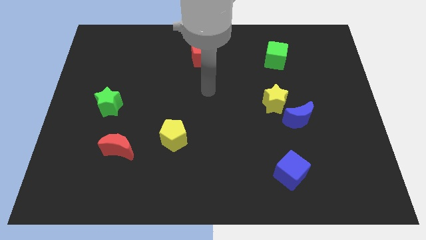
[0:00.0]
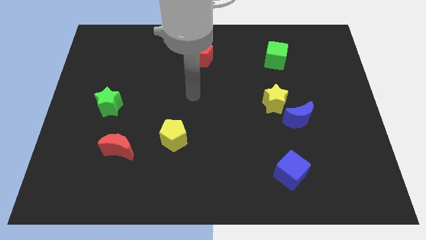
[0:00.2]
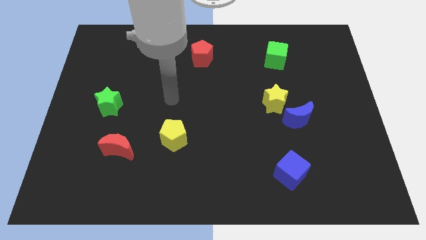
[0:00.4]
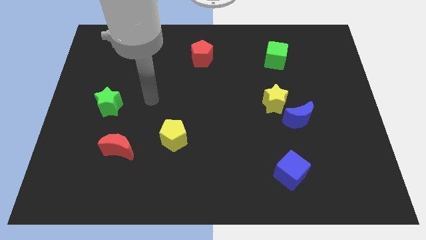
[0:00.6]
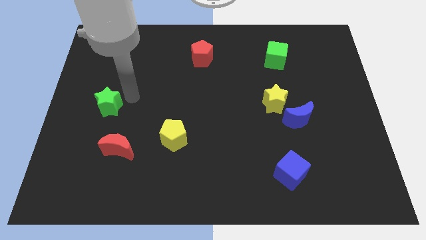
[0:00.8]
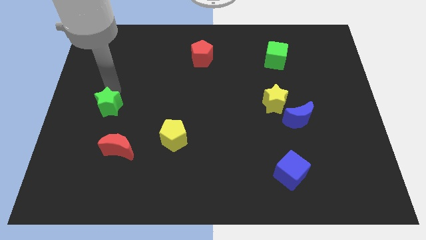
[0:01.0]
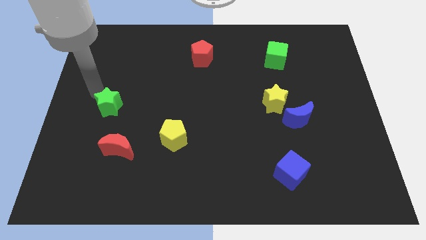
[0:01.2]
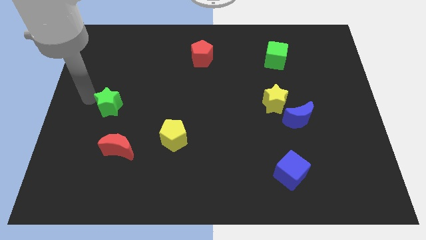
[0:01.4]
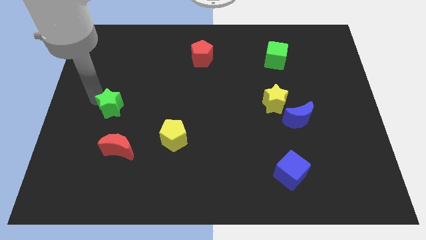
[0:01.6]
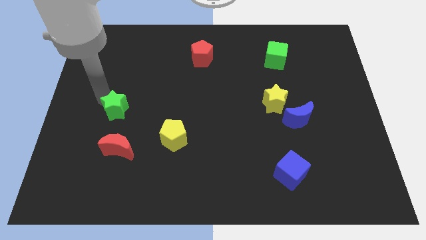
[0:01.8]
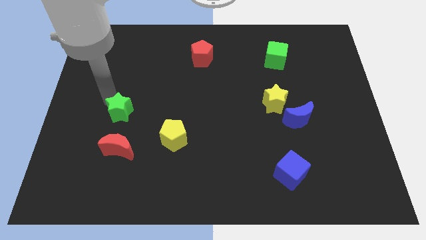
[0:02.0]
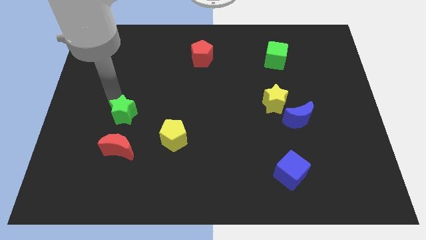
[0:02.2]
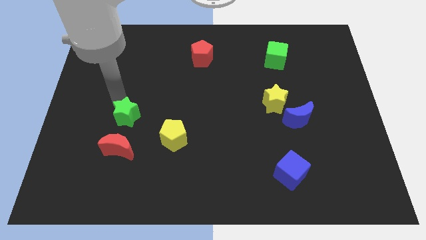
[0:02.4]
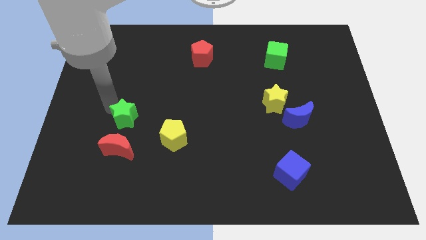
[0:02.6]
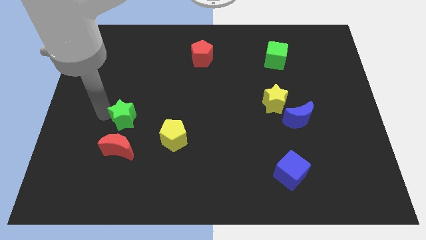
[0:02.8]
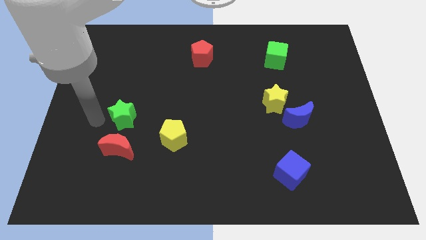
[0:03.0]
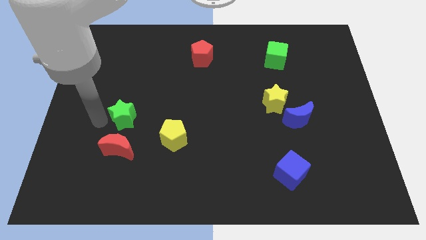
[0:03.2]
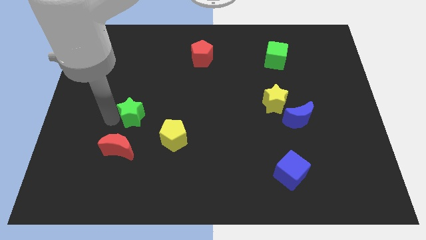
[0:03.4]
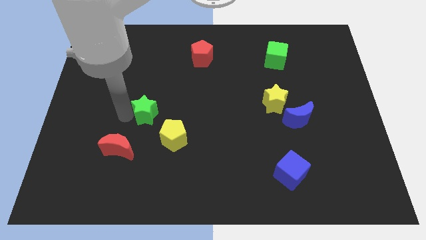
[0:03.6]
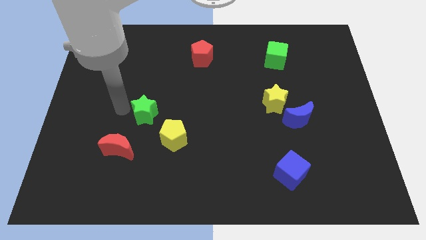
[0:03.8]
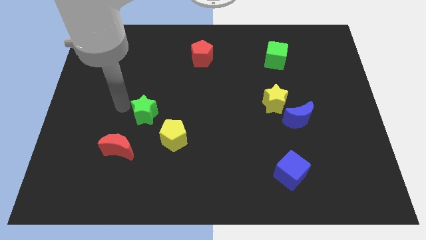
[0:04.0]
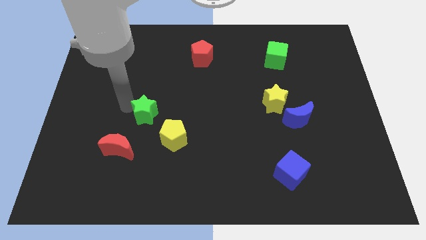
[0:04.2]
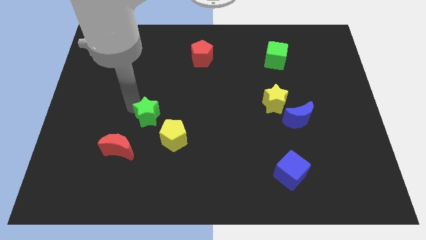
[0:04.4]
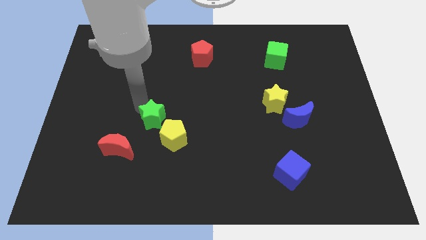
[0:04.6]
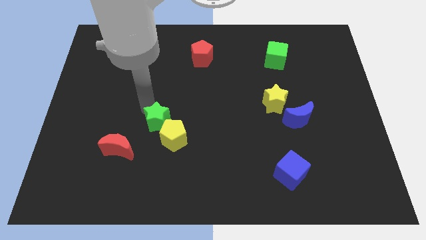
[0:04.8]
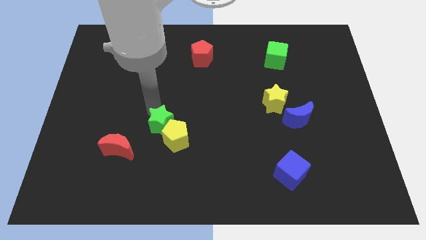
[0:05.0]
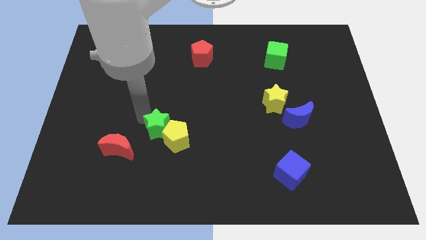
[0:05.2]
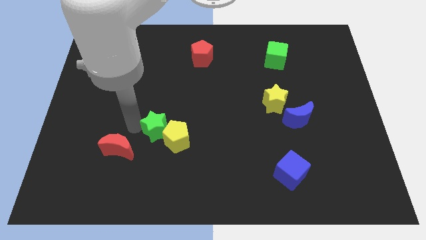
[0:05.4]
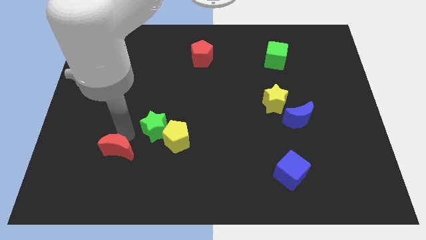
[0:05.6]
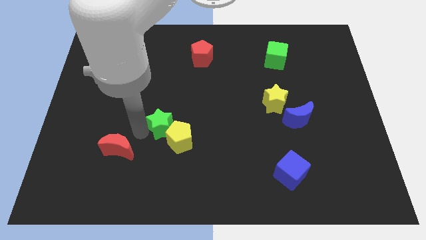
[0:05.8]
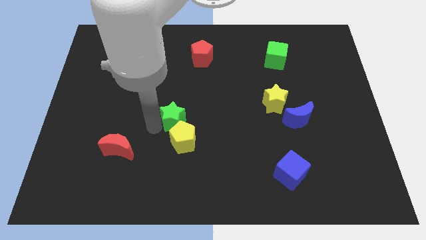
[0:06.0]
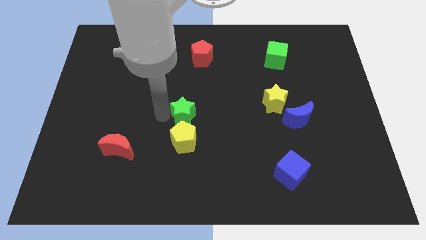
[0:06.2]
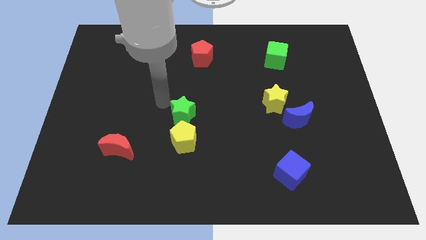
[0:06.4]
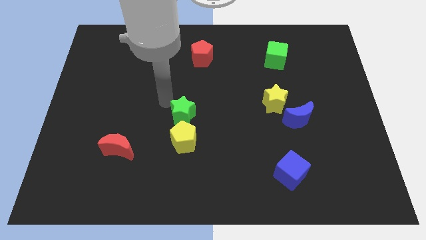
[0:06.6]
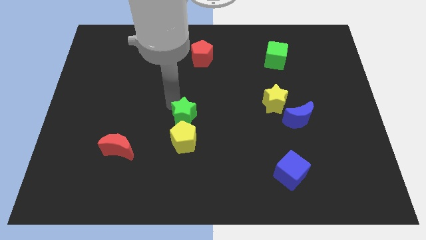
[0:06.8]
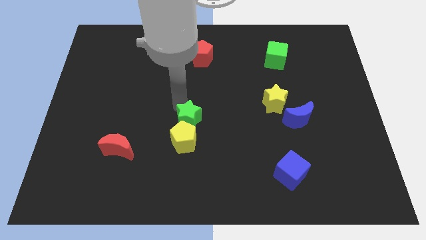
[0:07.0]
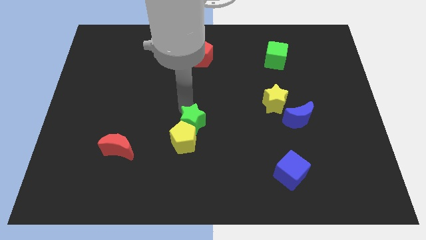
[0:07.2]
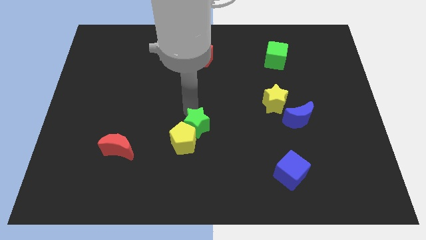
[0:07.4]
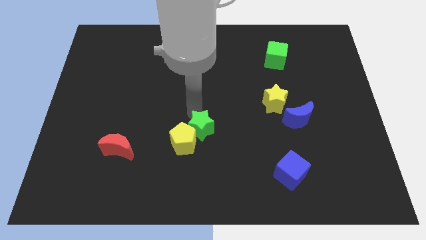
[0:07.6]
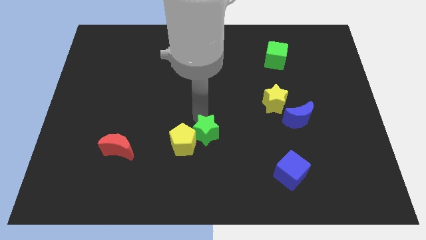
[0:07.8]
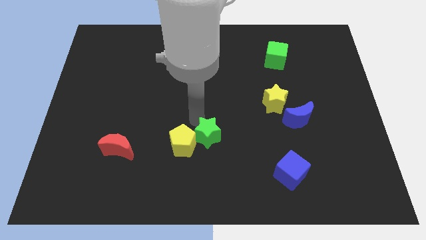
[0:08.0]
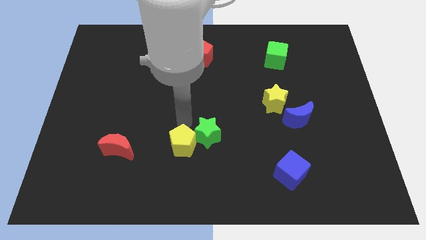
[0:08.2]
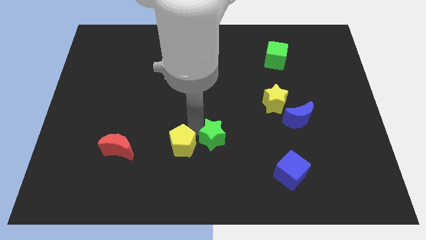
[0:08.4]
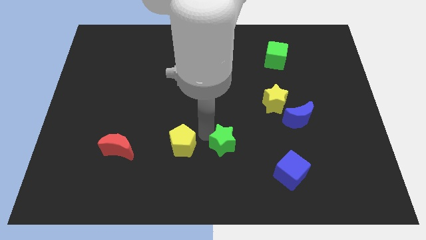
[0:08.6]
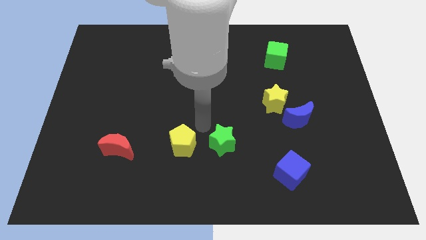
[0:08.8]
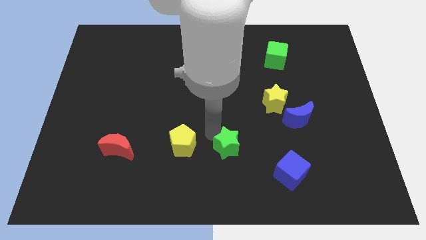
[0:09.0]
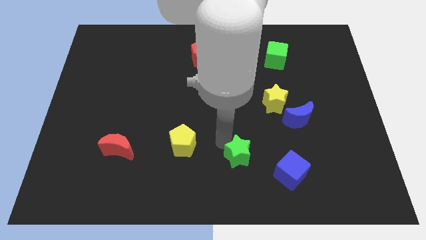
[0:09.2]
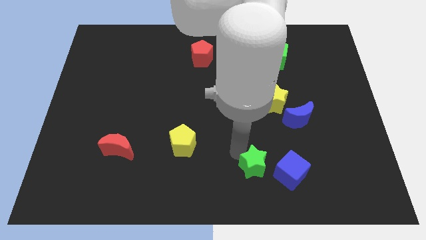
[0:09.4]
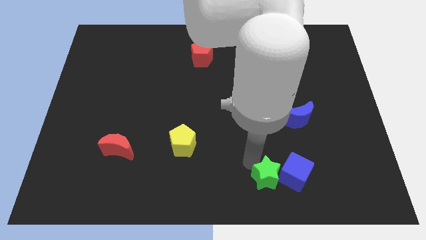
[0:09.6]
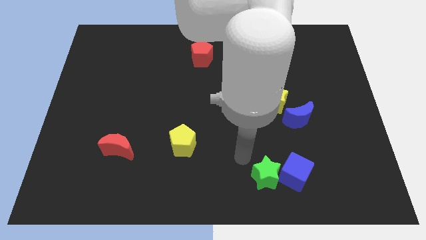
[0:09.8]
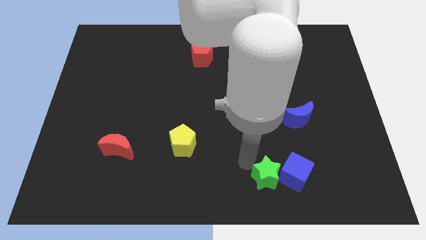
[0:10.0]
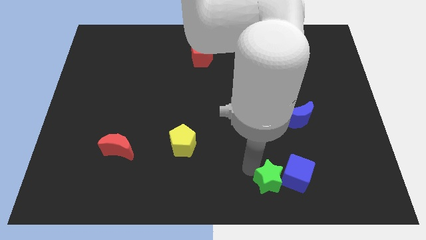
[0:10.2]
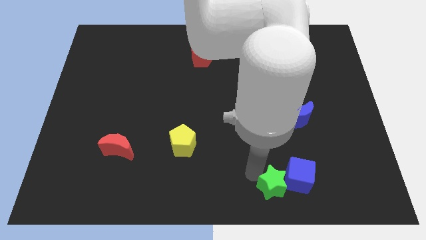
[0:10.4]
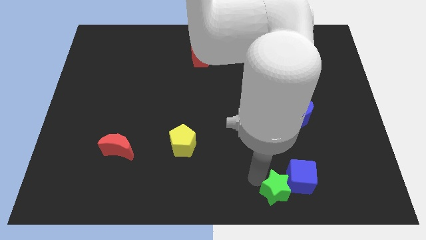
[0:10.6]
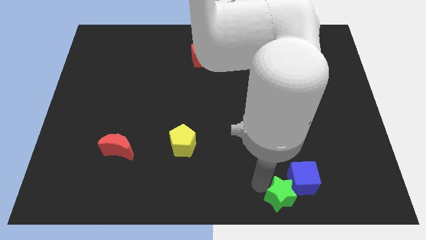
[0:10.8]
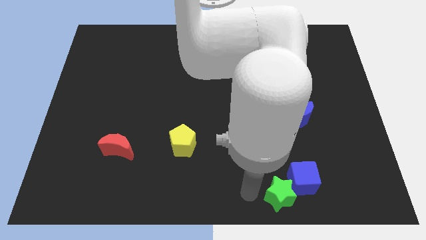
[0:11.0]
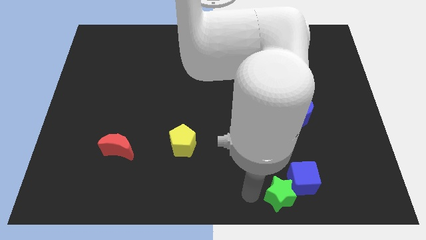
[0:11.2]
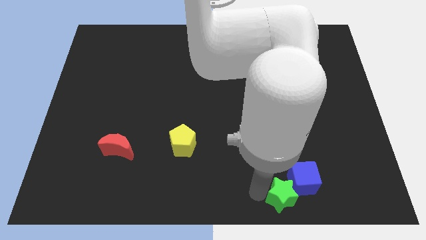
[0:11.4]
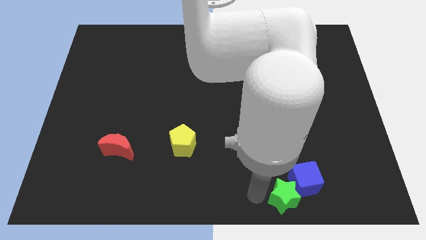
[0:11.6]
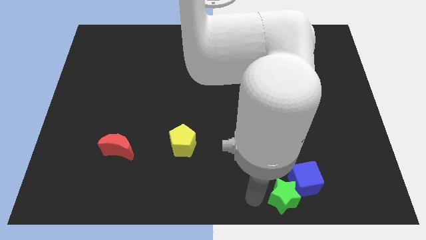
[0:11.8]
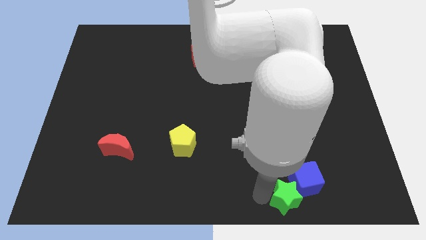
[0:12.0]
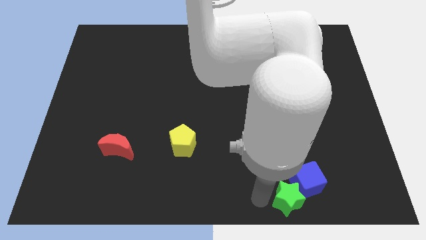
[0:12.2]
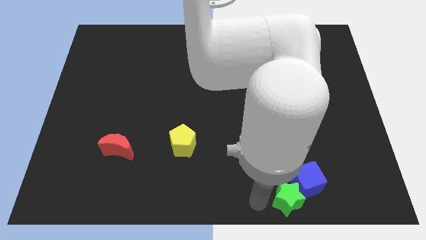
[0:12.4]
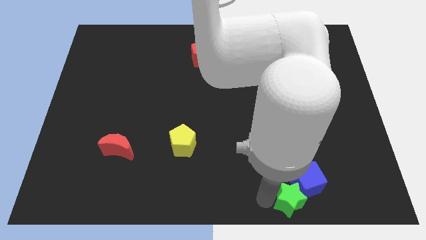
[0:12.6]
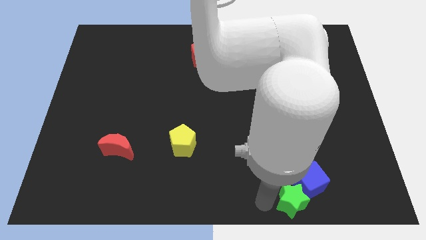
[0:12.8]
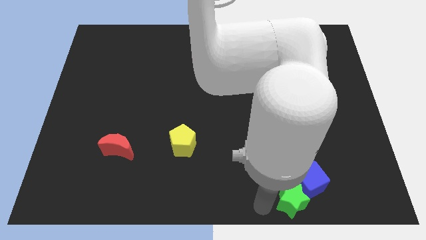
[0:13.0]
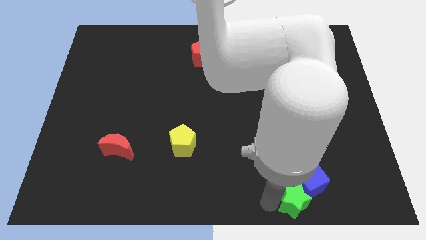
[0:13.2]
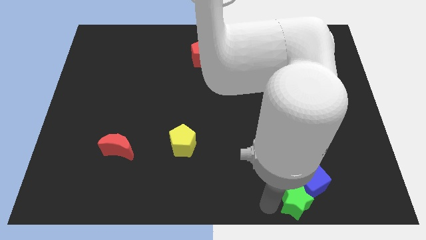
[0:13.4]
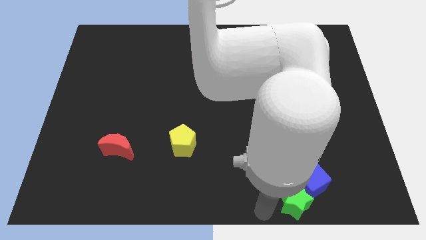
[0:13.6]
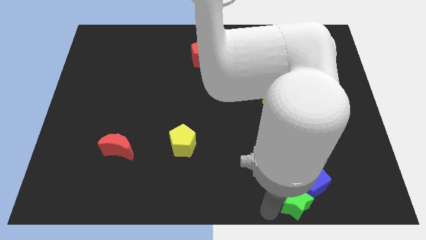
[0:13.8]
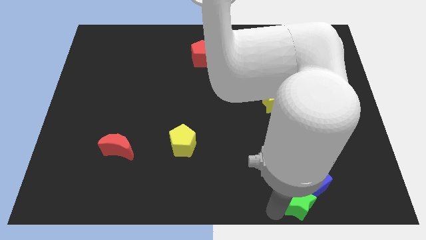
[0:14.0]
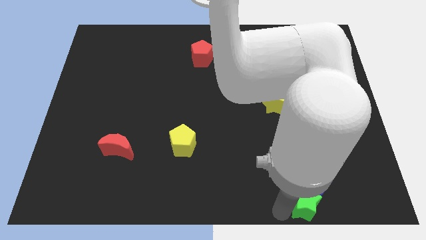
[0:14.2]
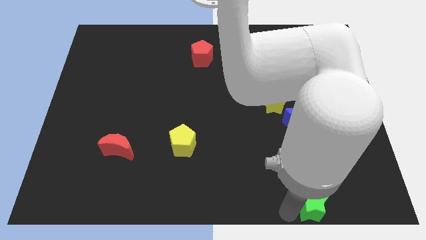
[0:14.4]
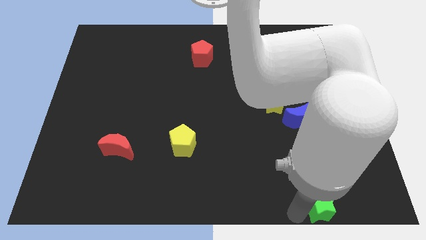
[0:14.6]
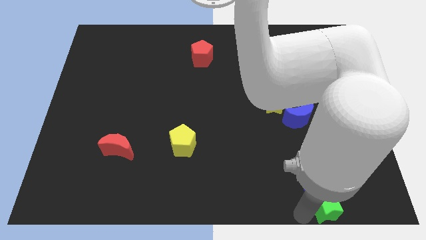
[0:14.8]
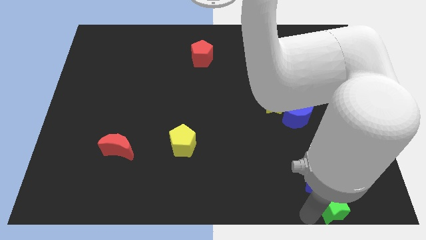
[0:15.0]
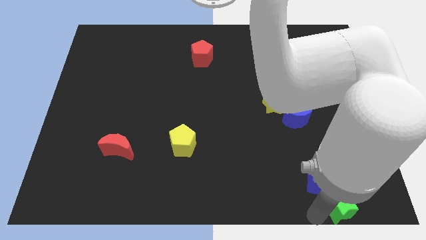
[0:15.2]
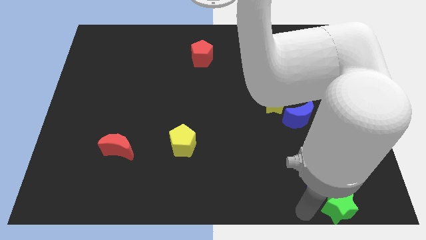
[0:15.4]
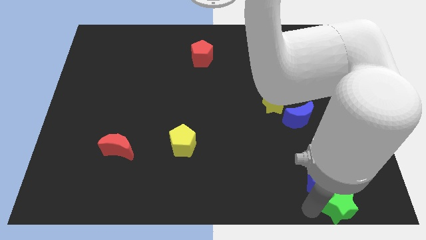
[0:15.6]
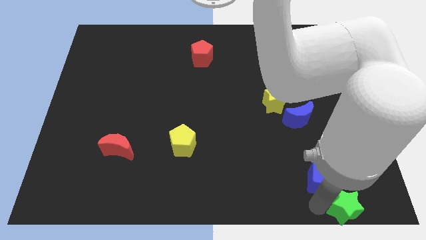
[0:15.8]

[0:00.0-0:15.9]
slide the green star to the bottom right corner
